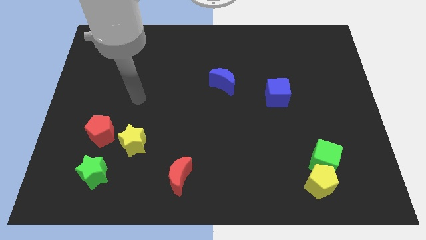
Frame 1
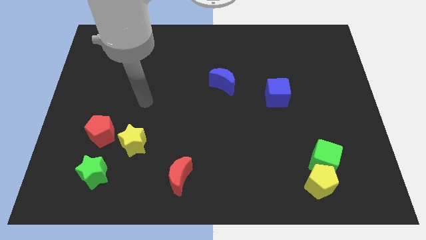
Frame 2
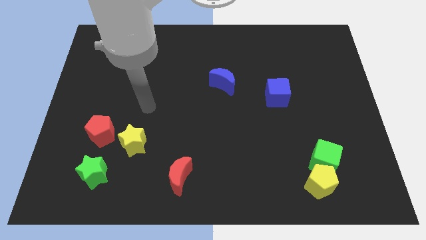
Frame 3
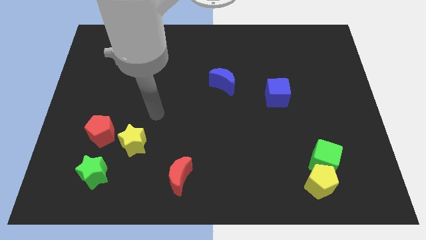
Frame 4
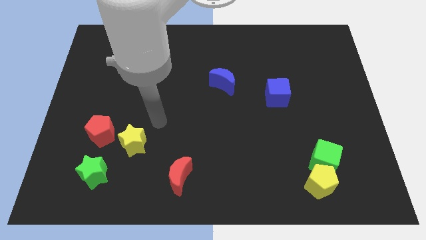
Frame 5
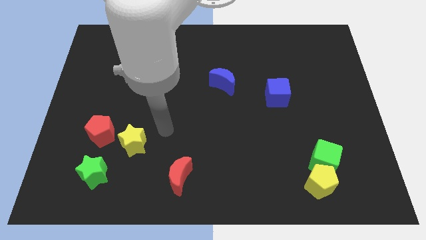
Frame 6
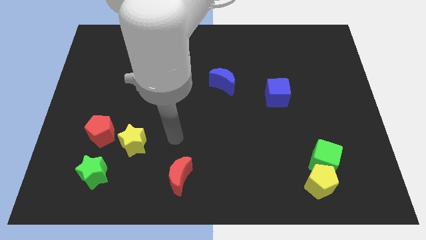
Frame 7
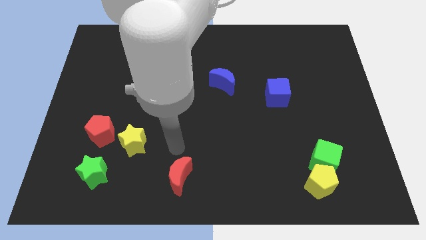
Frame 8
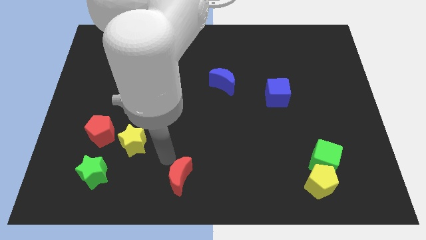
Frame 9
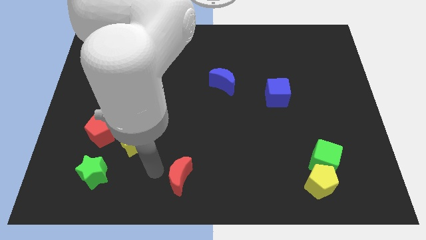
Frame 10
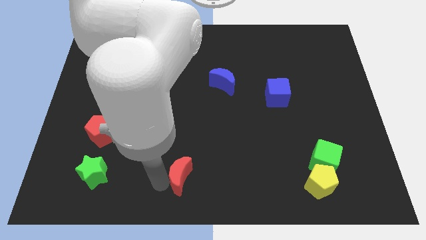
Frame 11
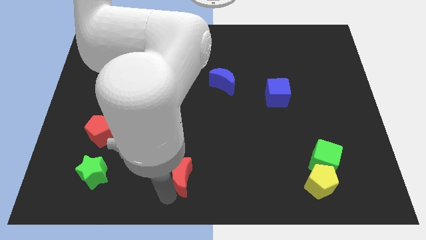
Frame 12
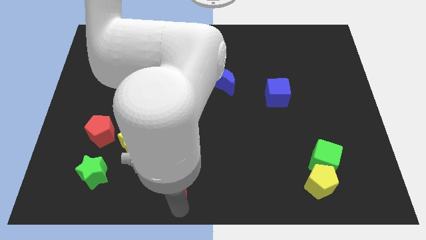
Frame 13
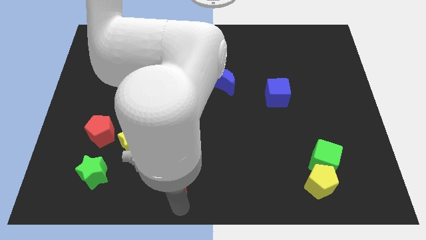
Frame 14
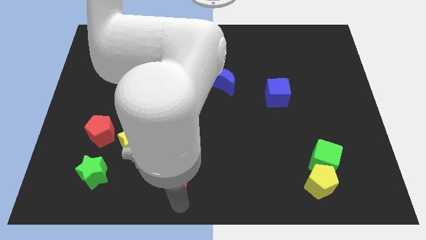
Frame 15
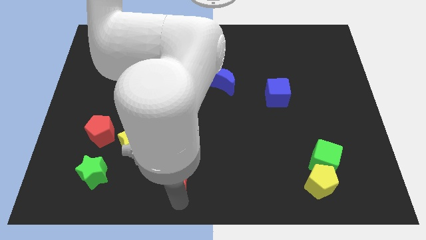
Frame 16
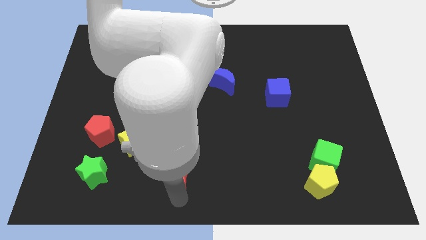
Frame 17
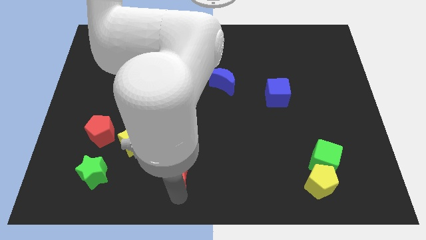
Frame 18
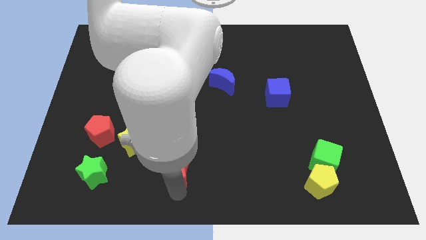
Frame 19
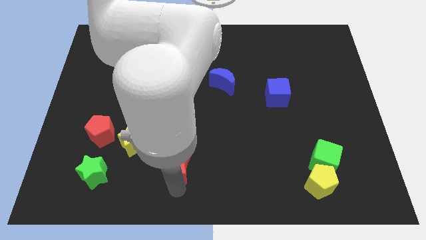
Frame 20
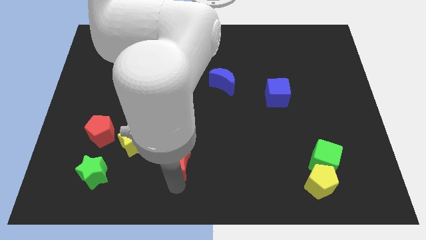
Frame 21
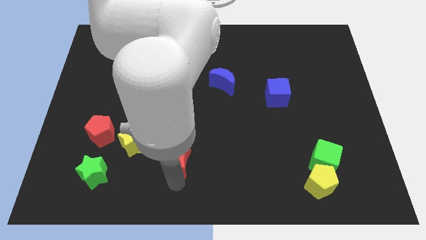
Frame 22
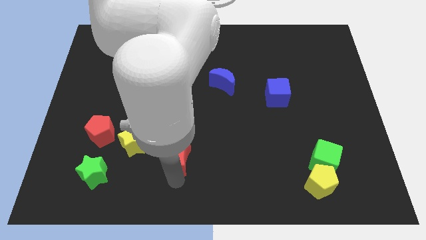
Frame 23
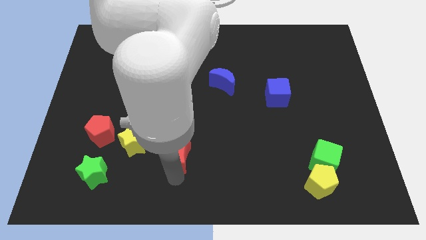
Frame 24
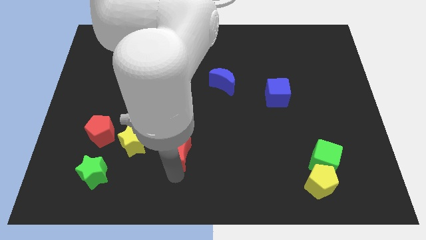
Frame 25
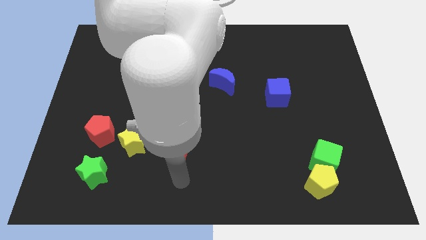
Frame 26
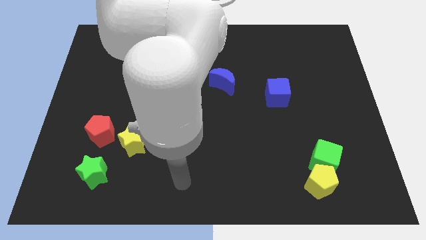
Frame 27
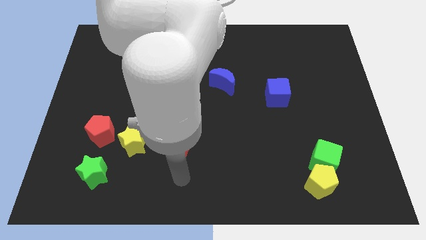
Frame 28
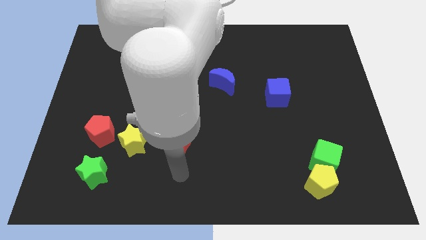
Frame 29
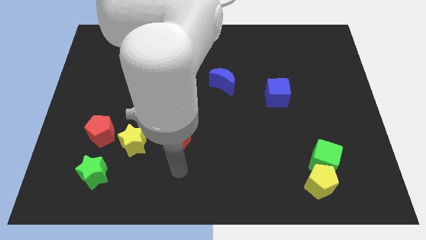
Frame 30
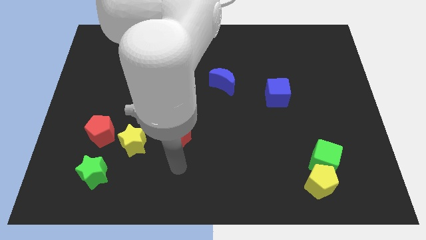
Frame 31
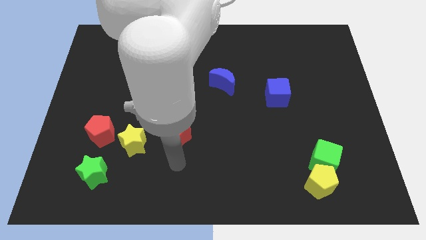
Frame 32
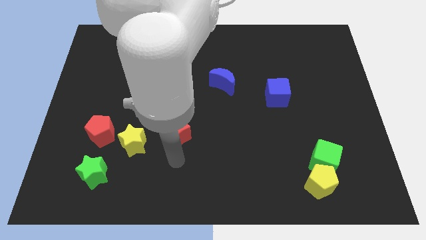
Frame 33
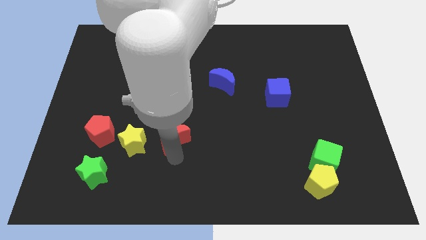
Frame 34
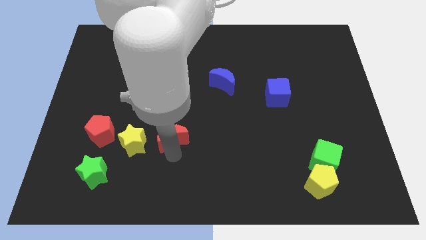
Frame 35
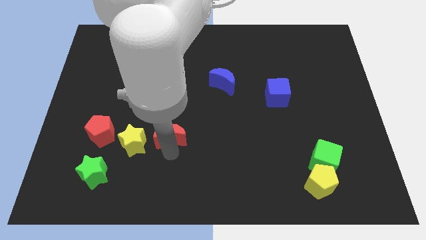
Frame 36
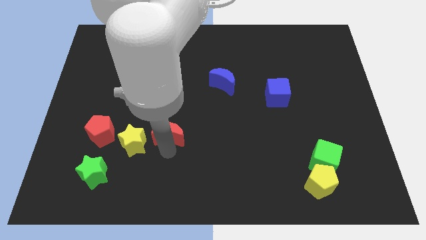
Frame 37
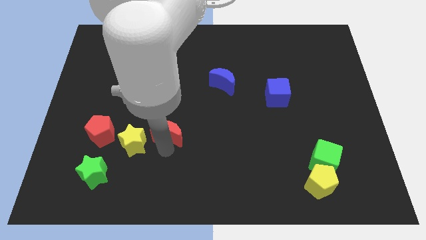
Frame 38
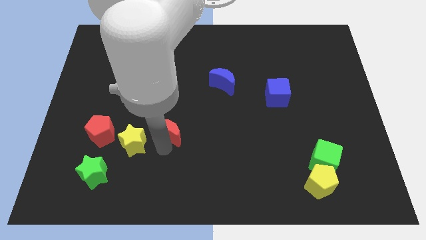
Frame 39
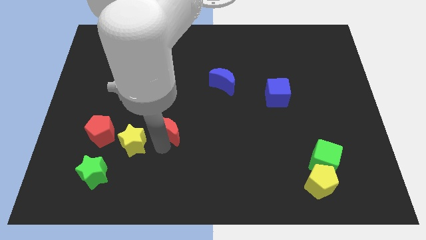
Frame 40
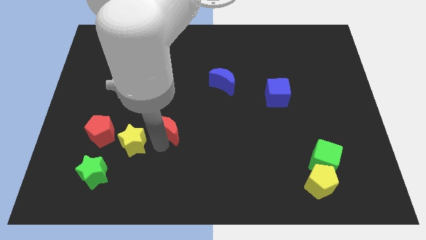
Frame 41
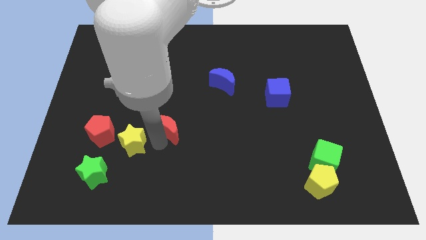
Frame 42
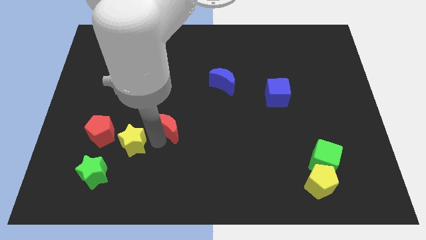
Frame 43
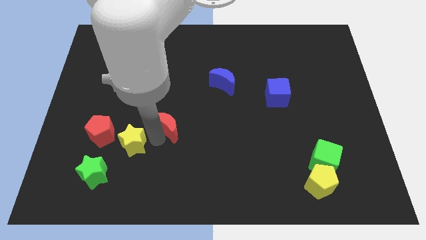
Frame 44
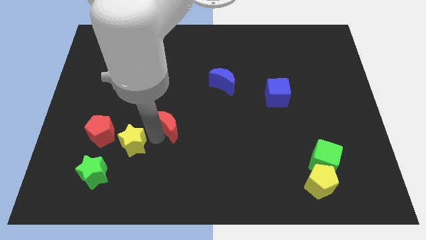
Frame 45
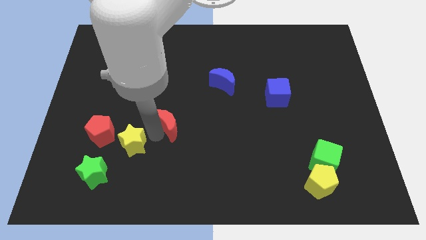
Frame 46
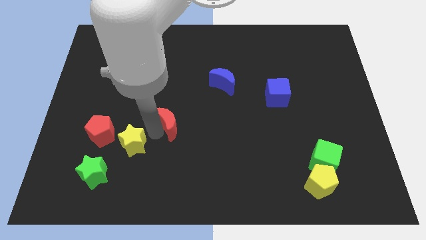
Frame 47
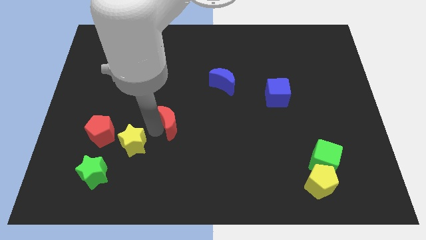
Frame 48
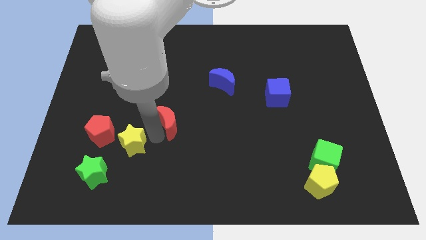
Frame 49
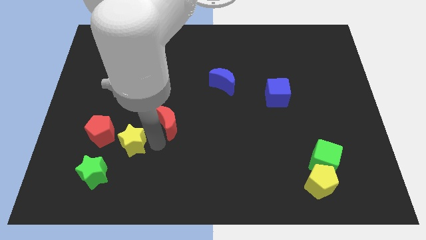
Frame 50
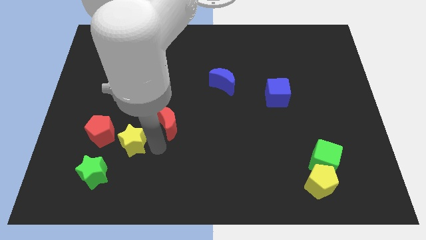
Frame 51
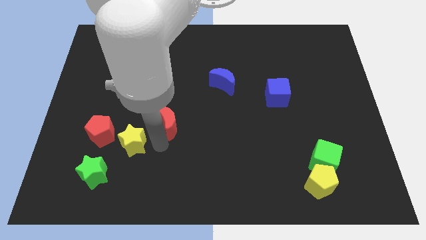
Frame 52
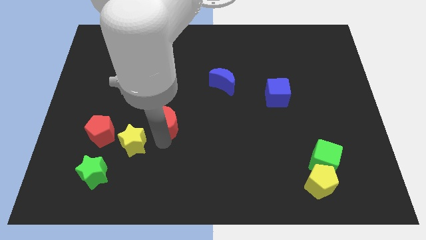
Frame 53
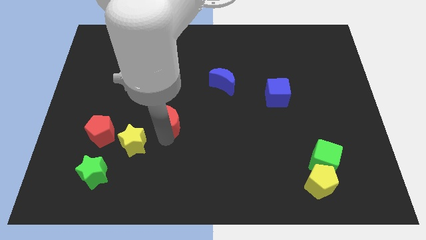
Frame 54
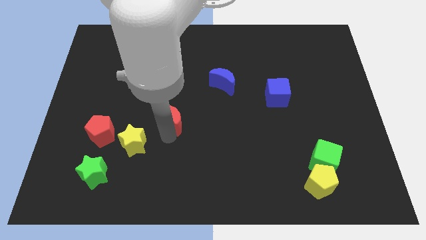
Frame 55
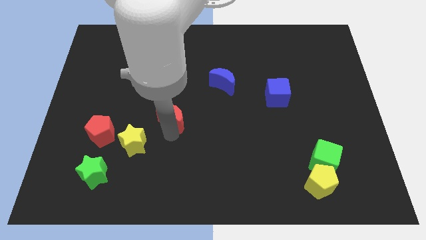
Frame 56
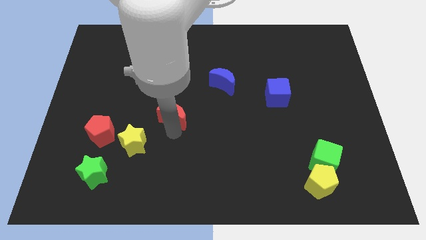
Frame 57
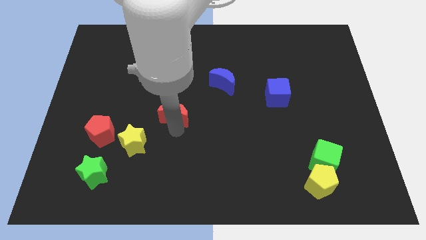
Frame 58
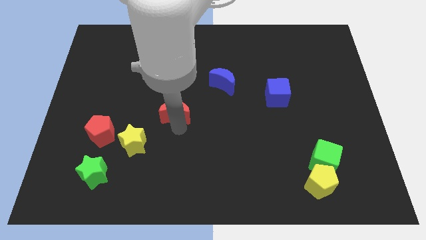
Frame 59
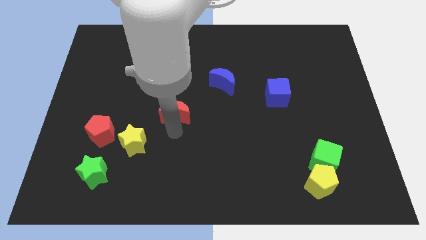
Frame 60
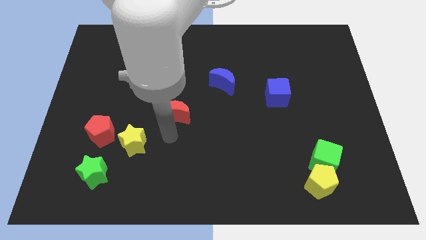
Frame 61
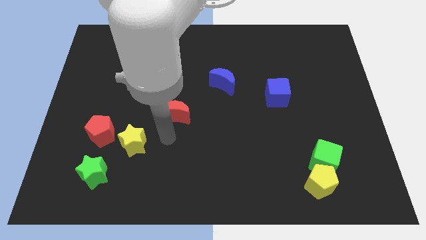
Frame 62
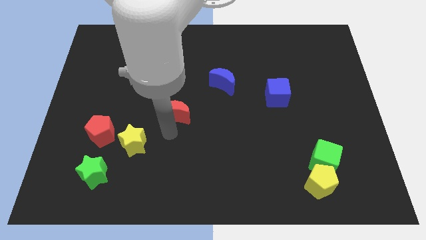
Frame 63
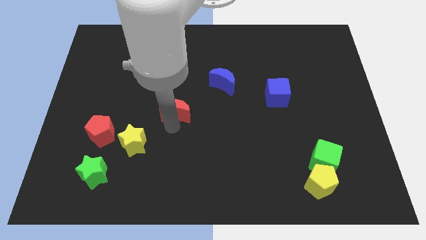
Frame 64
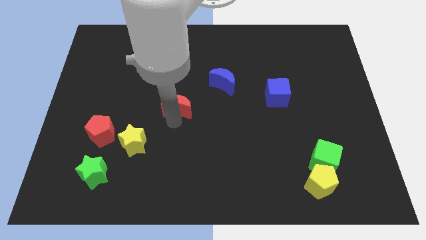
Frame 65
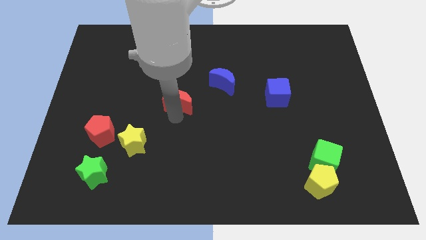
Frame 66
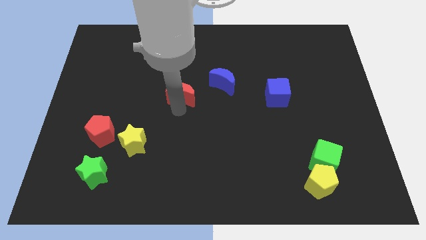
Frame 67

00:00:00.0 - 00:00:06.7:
push the red moon up

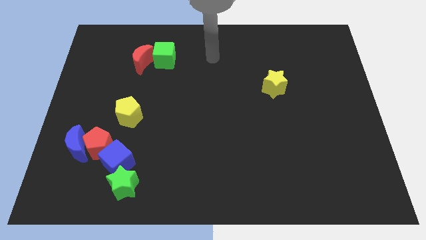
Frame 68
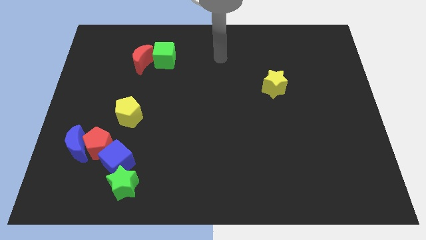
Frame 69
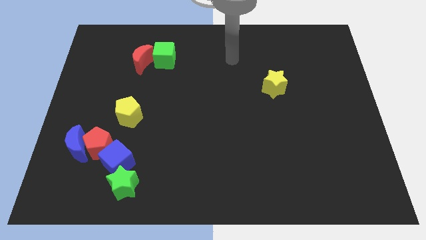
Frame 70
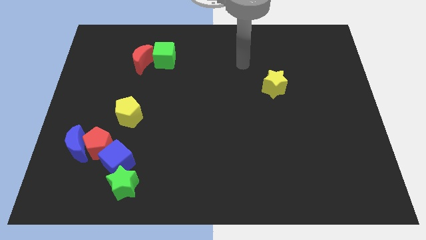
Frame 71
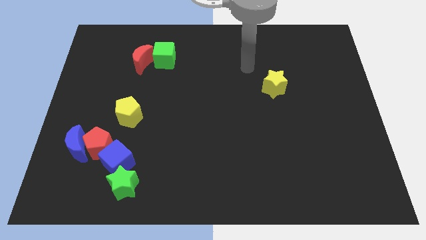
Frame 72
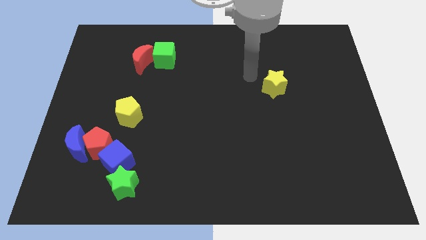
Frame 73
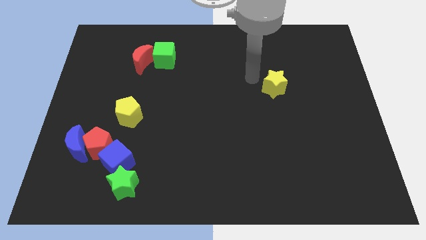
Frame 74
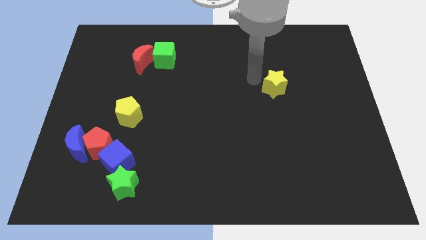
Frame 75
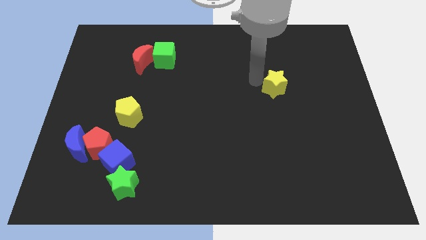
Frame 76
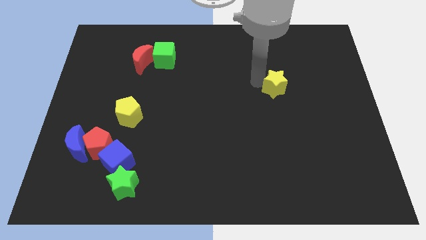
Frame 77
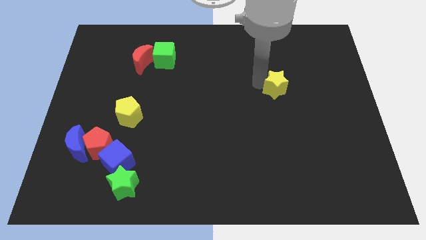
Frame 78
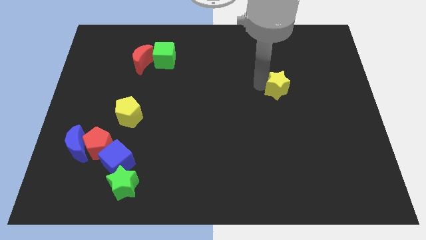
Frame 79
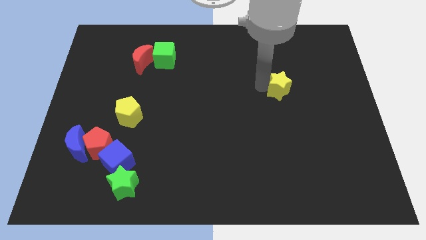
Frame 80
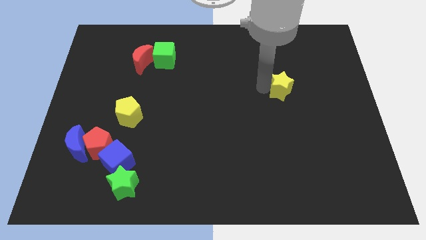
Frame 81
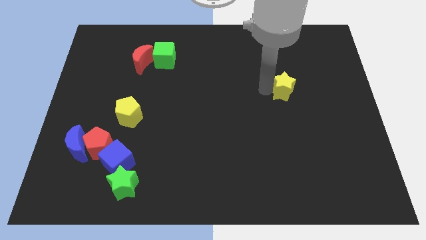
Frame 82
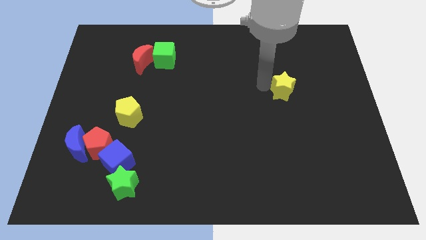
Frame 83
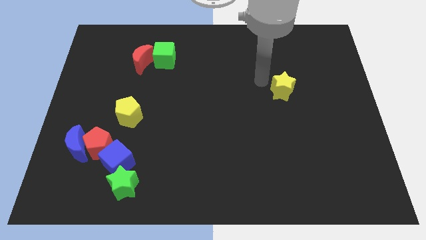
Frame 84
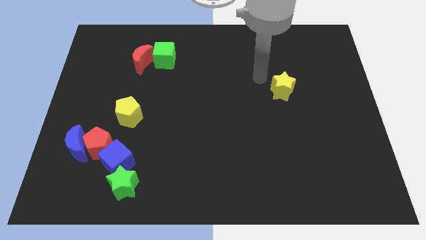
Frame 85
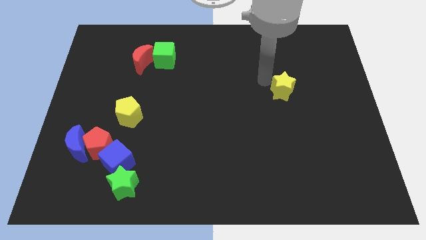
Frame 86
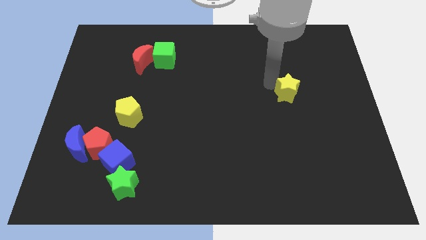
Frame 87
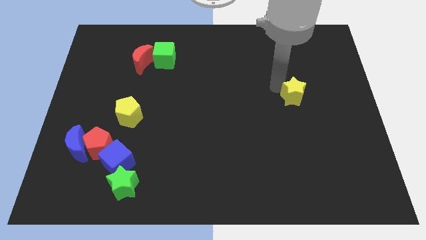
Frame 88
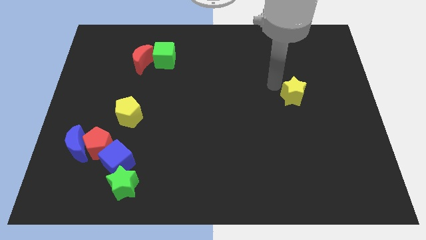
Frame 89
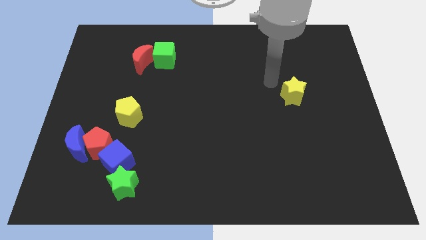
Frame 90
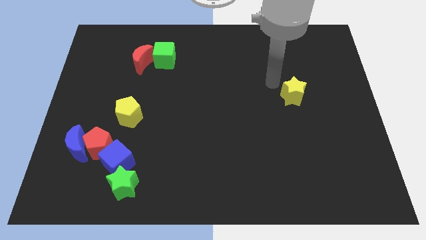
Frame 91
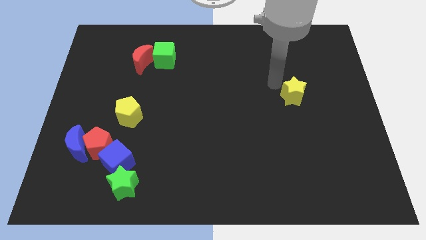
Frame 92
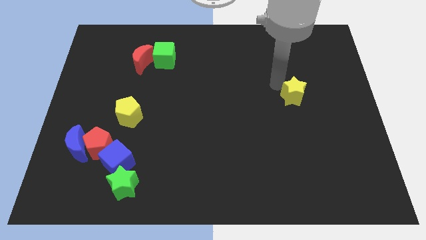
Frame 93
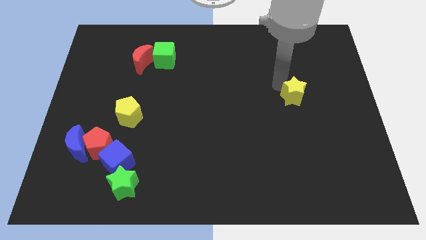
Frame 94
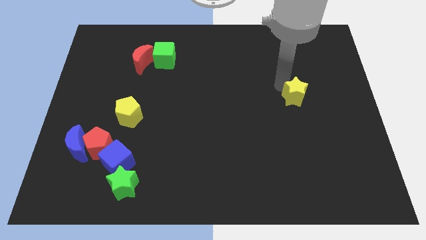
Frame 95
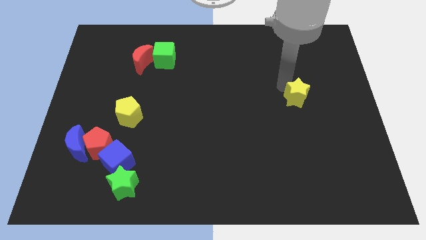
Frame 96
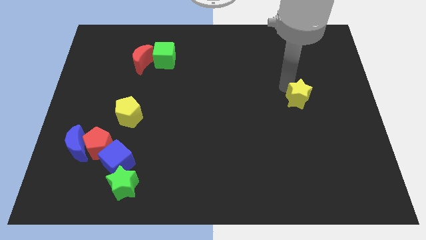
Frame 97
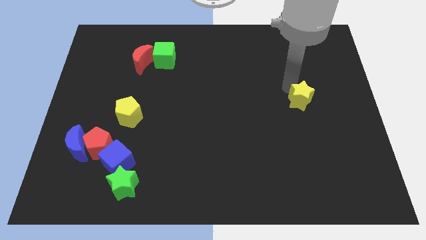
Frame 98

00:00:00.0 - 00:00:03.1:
move the yellow star down and to the right a bit
